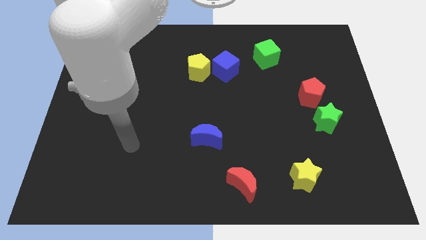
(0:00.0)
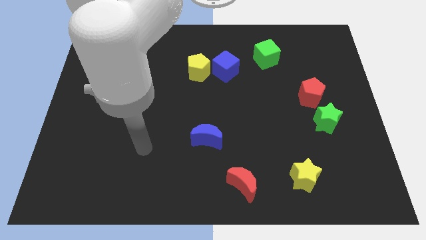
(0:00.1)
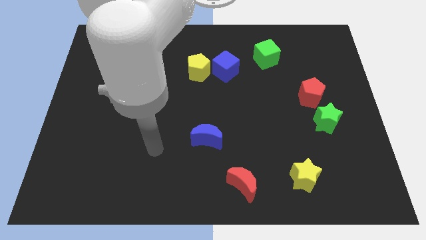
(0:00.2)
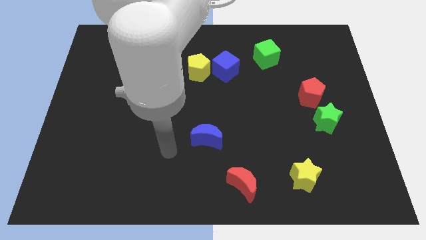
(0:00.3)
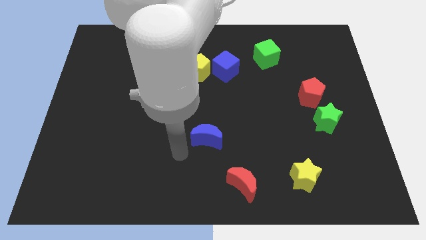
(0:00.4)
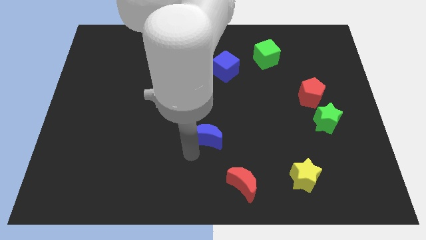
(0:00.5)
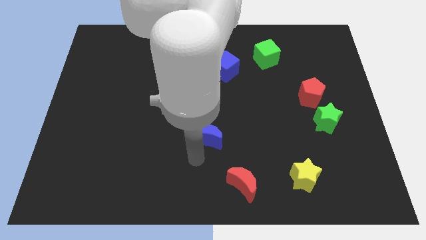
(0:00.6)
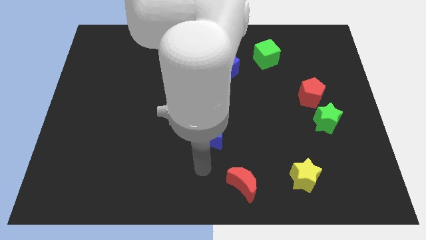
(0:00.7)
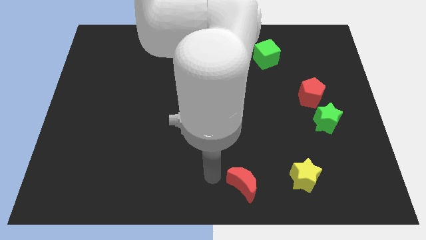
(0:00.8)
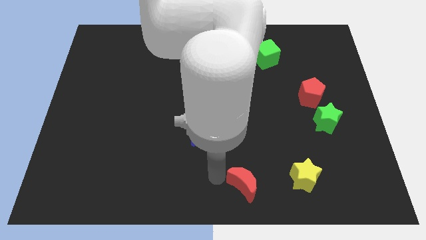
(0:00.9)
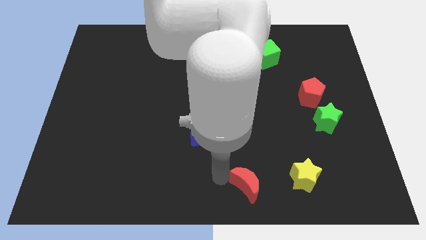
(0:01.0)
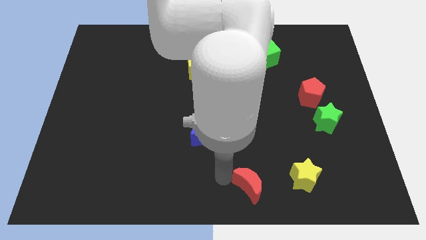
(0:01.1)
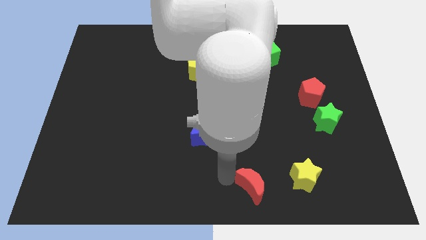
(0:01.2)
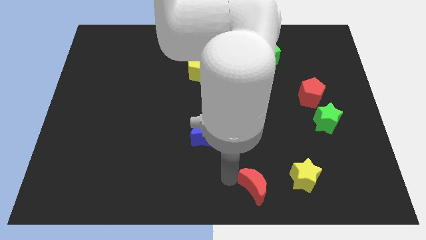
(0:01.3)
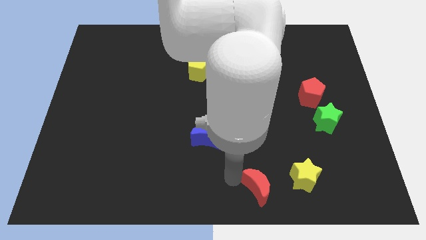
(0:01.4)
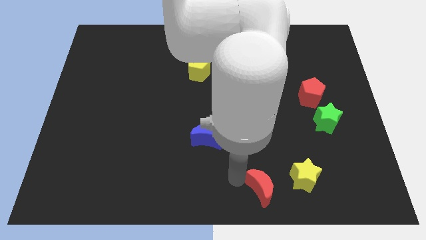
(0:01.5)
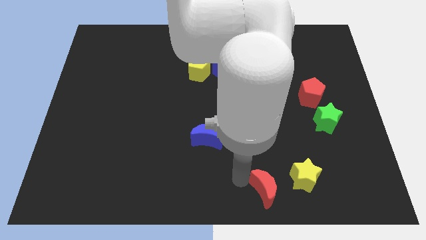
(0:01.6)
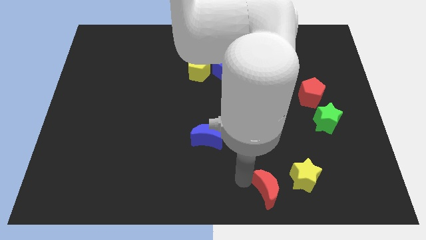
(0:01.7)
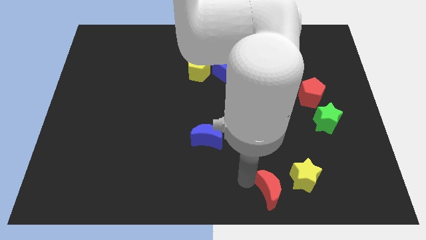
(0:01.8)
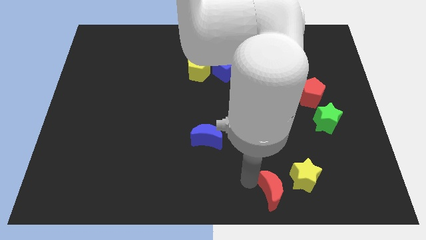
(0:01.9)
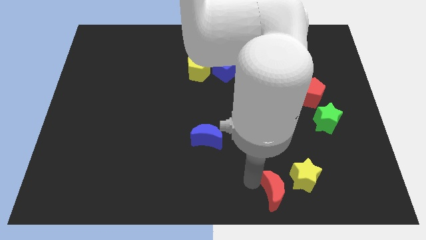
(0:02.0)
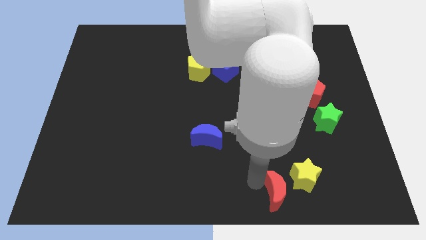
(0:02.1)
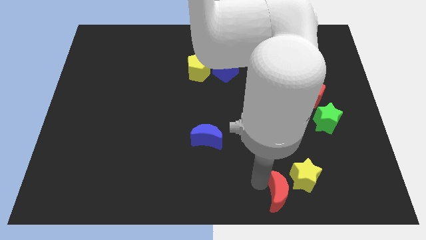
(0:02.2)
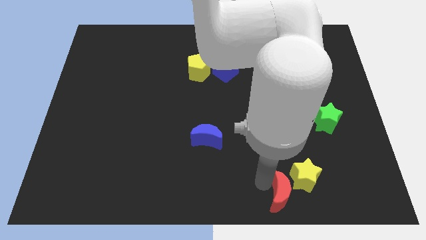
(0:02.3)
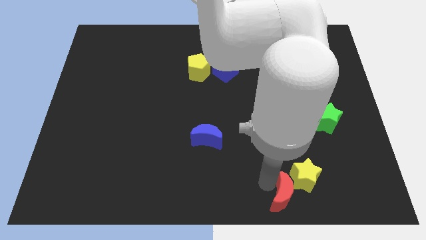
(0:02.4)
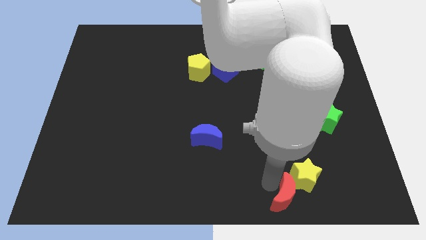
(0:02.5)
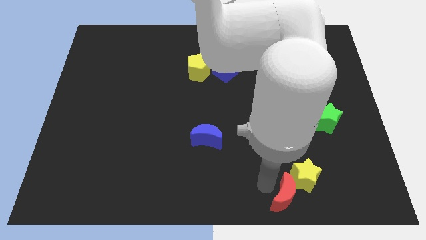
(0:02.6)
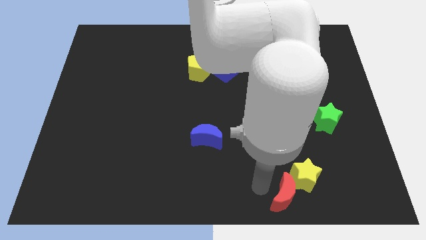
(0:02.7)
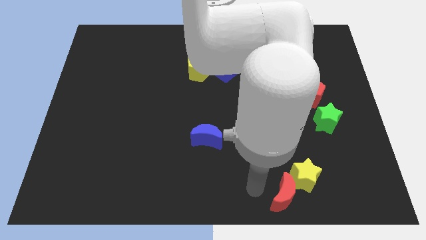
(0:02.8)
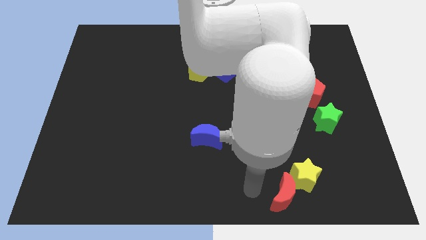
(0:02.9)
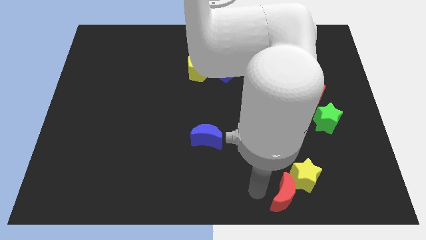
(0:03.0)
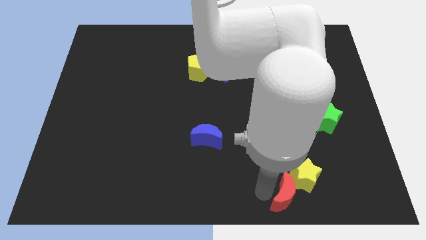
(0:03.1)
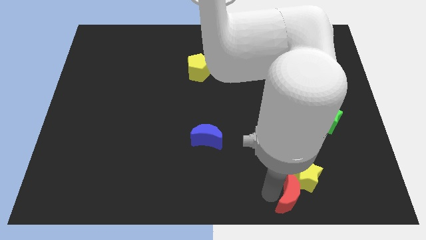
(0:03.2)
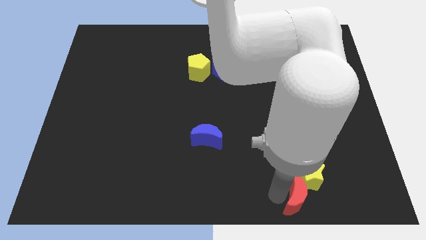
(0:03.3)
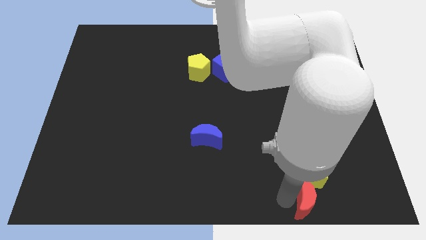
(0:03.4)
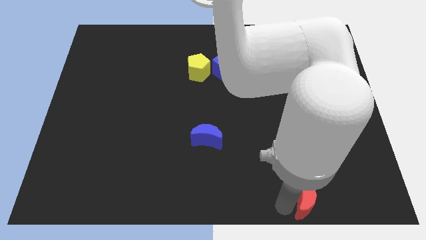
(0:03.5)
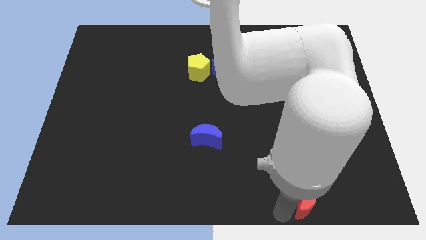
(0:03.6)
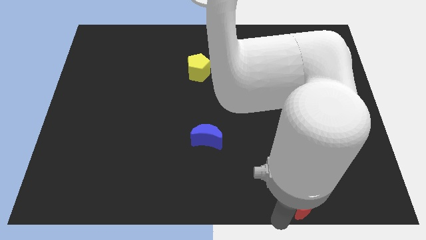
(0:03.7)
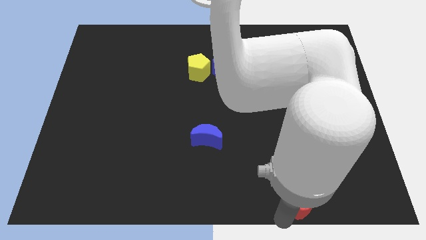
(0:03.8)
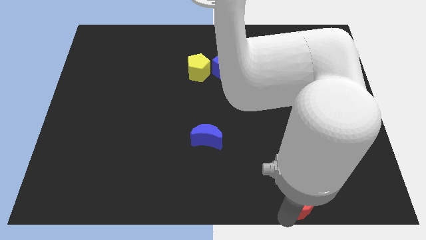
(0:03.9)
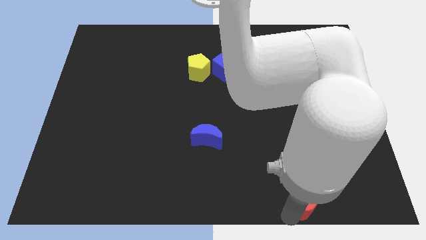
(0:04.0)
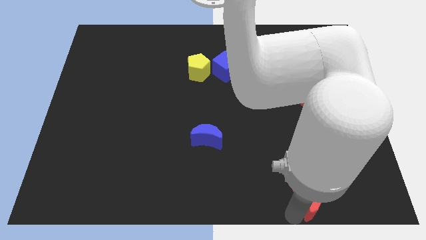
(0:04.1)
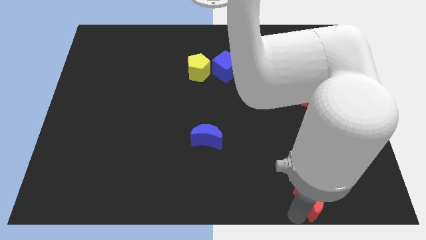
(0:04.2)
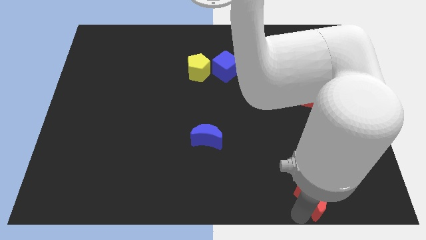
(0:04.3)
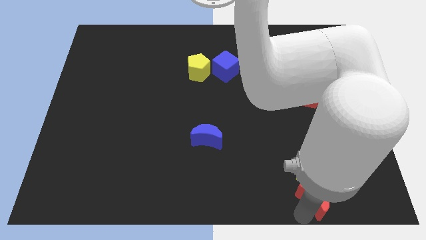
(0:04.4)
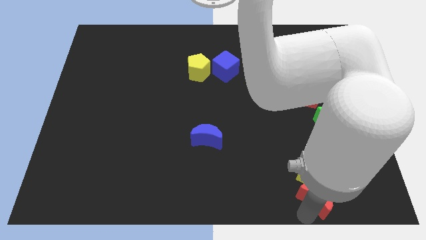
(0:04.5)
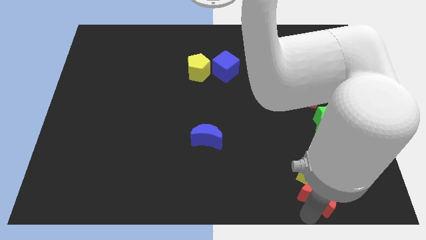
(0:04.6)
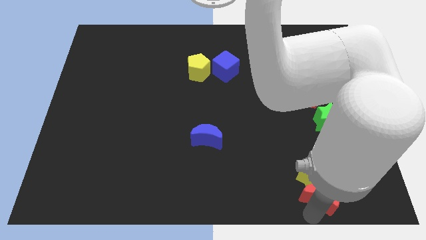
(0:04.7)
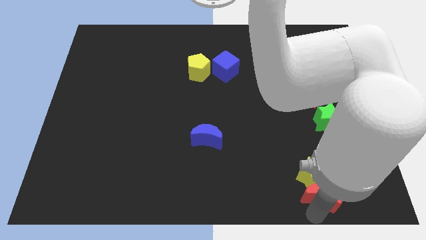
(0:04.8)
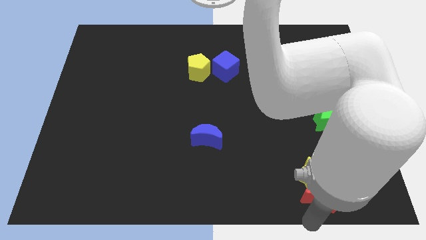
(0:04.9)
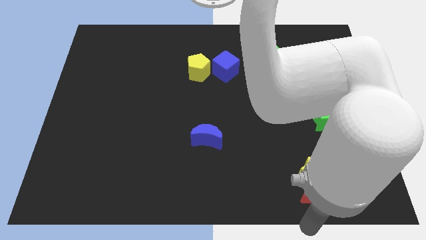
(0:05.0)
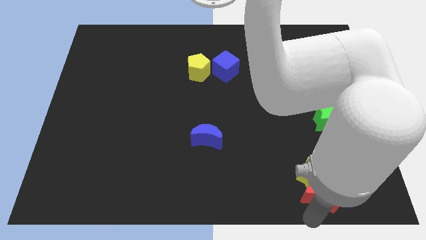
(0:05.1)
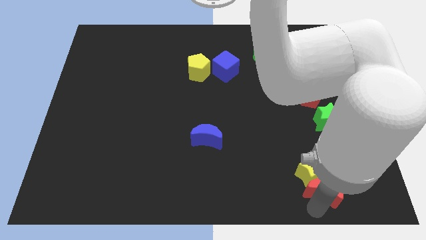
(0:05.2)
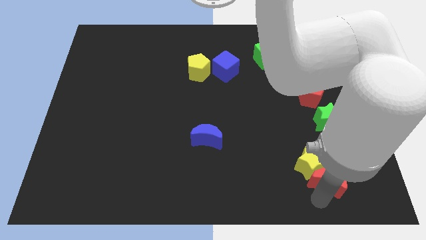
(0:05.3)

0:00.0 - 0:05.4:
push the red moon to the bottom side of the green star

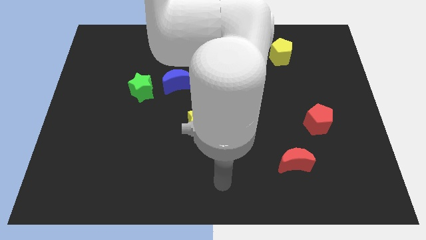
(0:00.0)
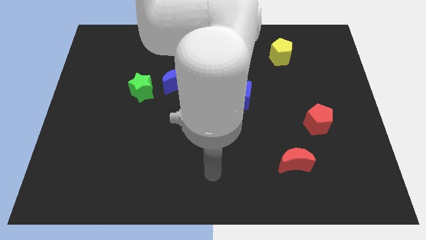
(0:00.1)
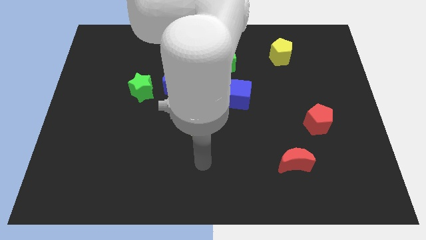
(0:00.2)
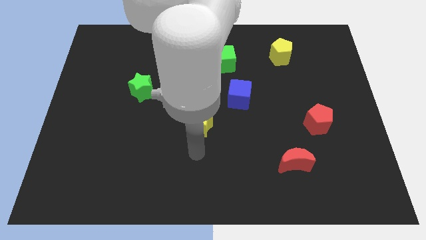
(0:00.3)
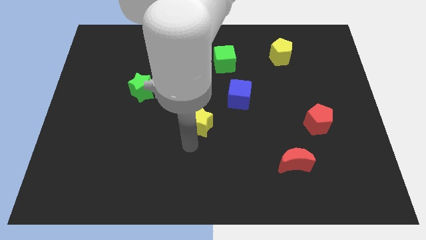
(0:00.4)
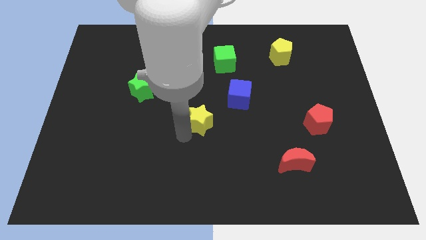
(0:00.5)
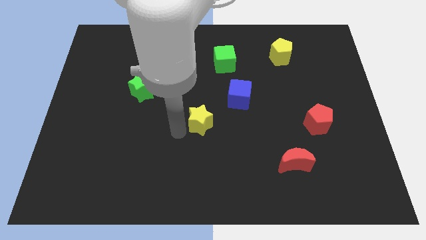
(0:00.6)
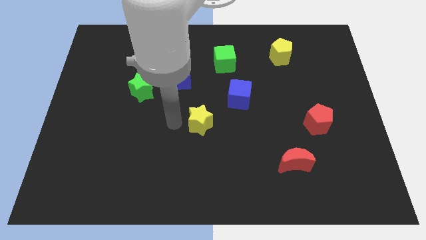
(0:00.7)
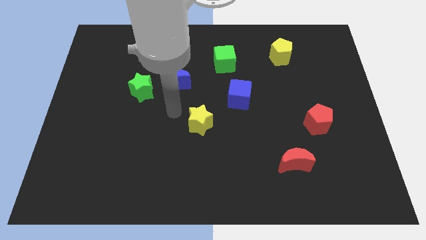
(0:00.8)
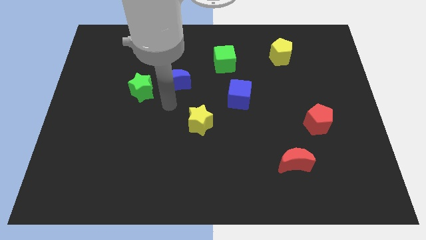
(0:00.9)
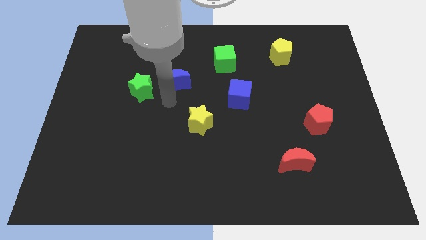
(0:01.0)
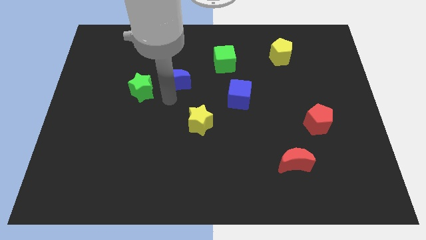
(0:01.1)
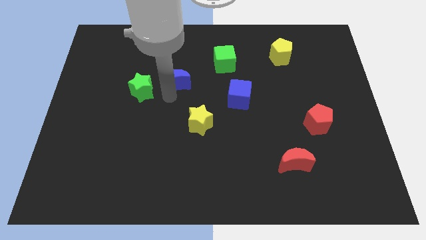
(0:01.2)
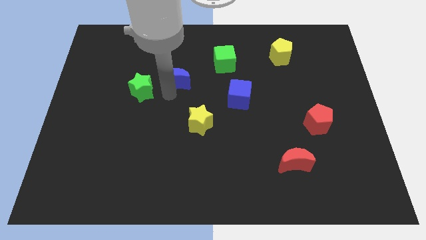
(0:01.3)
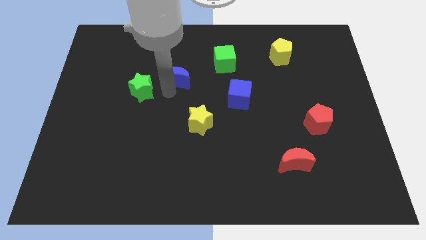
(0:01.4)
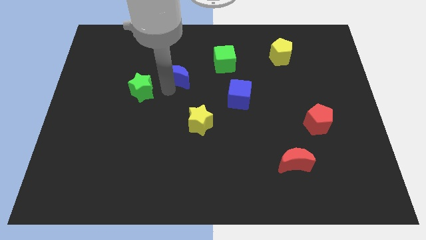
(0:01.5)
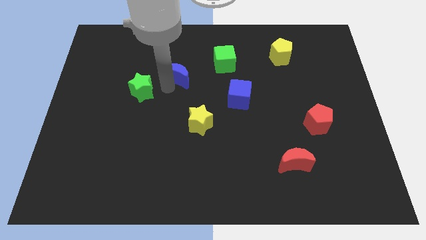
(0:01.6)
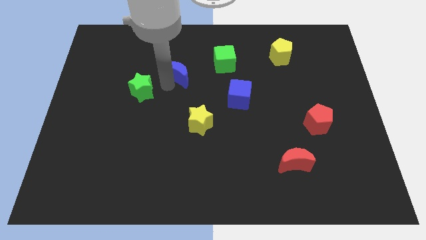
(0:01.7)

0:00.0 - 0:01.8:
put the blue moon left of the green cube
